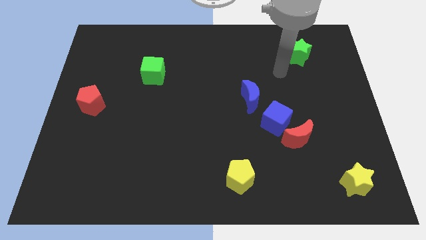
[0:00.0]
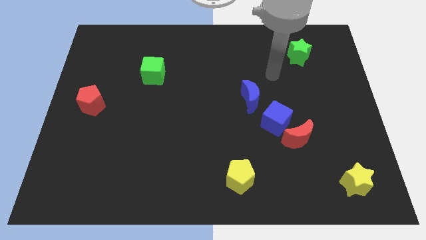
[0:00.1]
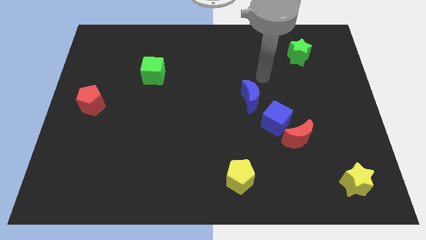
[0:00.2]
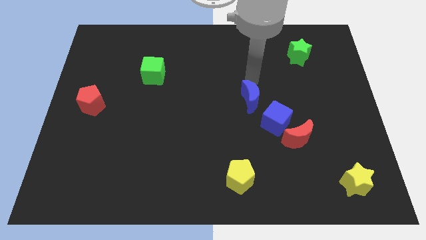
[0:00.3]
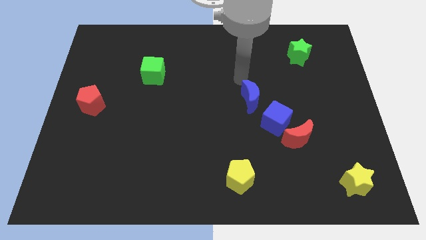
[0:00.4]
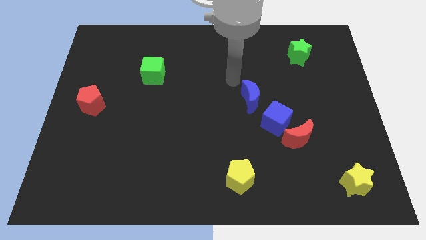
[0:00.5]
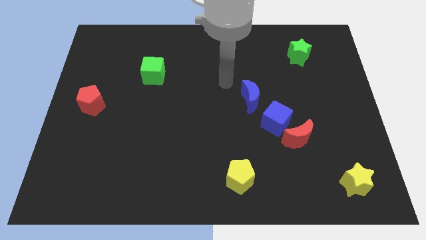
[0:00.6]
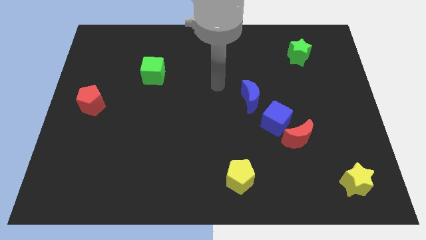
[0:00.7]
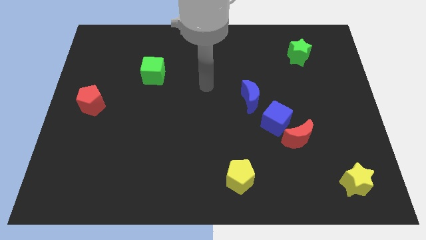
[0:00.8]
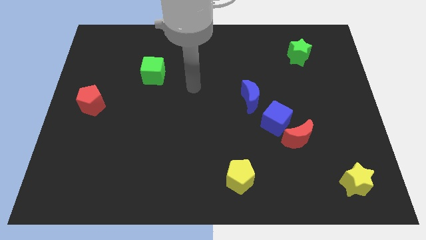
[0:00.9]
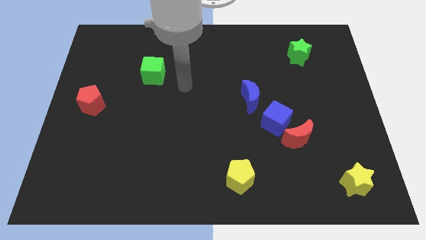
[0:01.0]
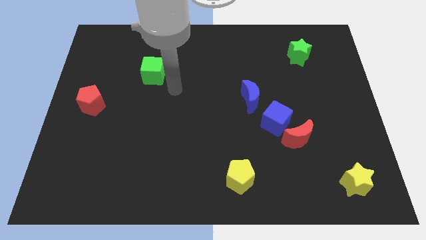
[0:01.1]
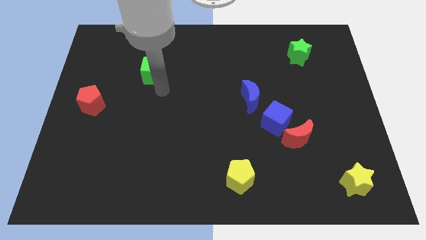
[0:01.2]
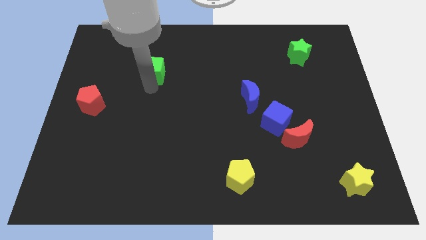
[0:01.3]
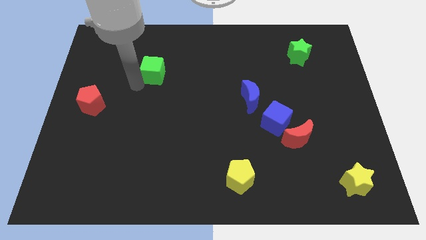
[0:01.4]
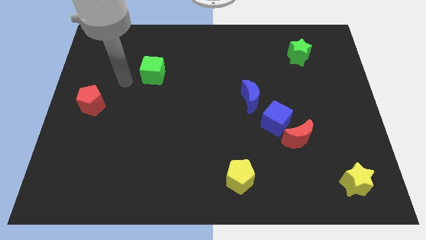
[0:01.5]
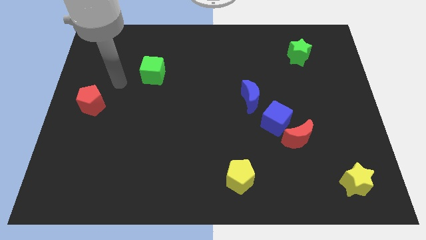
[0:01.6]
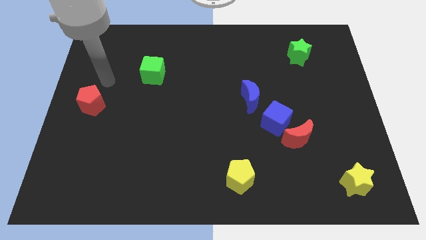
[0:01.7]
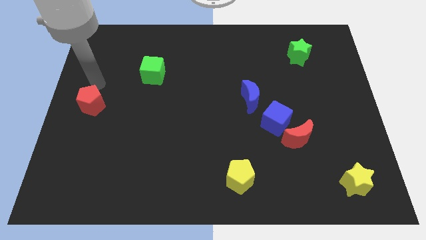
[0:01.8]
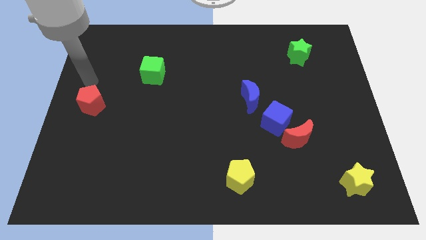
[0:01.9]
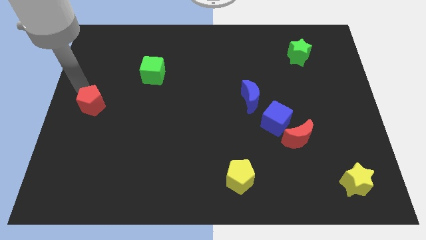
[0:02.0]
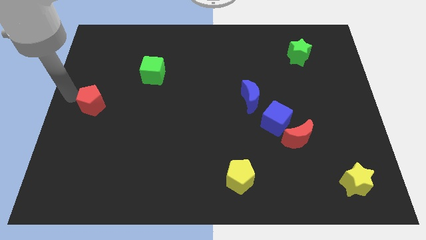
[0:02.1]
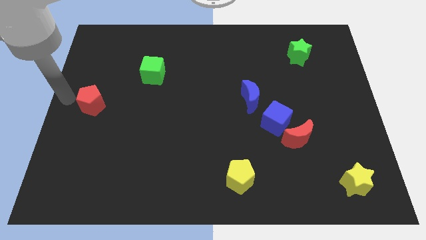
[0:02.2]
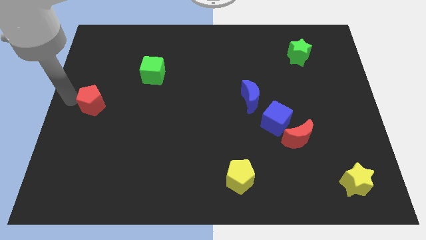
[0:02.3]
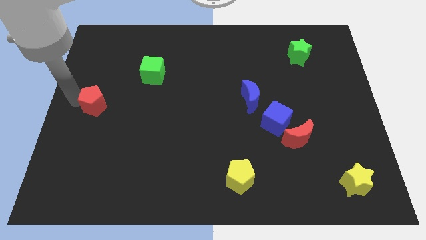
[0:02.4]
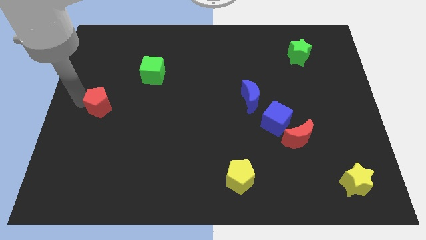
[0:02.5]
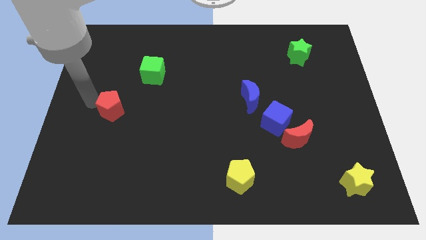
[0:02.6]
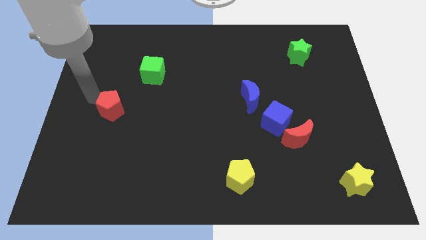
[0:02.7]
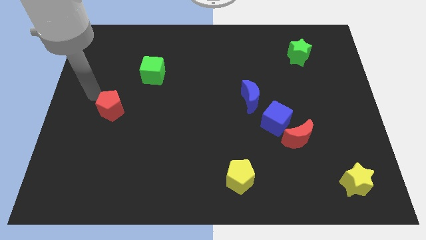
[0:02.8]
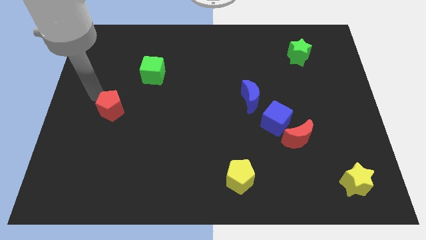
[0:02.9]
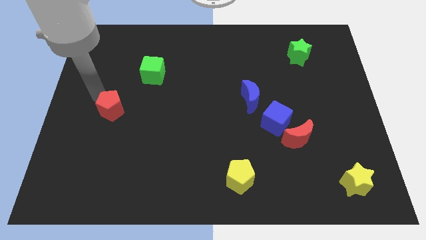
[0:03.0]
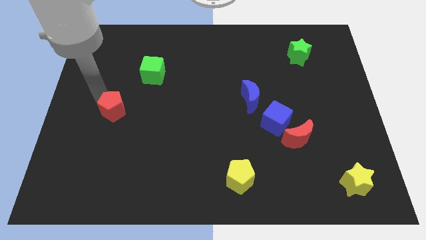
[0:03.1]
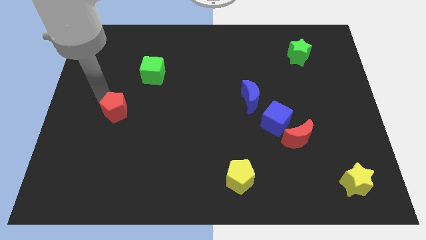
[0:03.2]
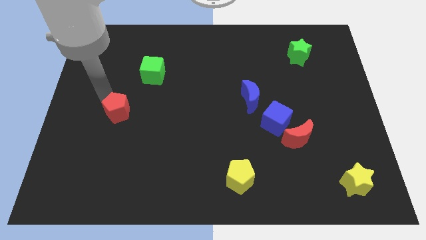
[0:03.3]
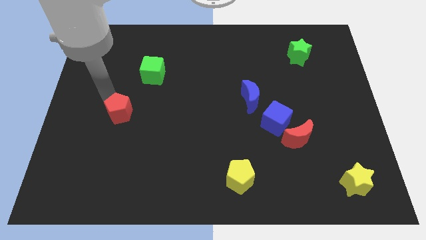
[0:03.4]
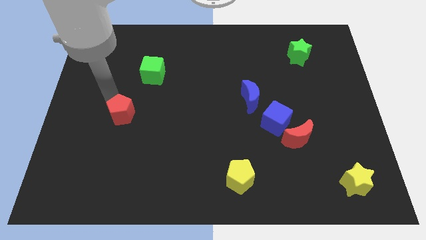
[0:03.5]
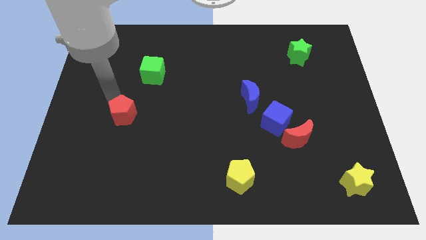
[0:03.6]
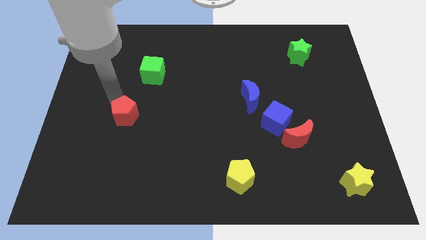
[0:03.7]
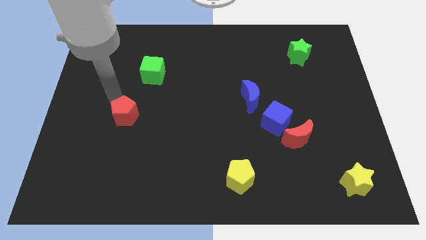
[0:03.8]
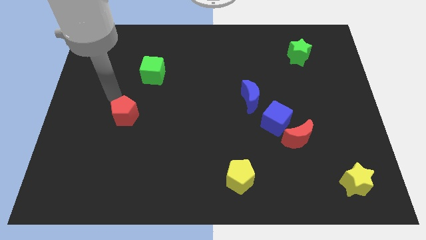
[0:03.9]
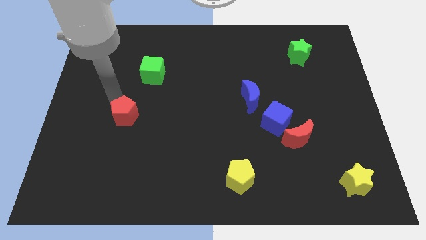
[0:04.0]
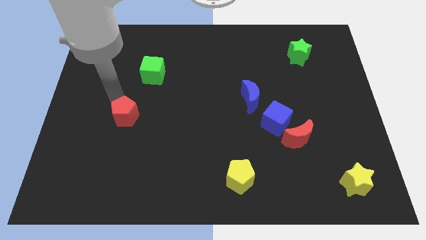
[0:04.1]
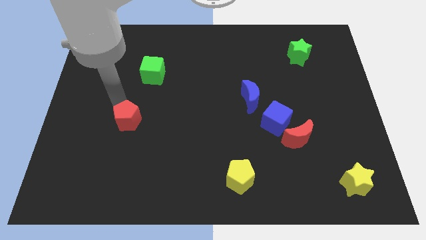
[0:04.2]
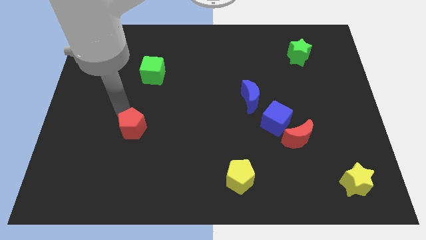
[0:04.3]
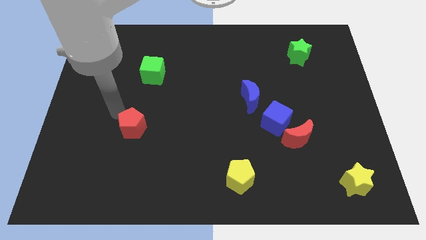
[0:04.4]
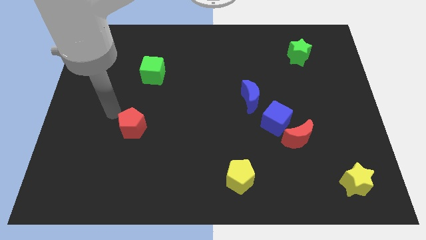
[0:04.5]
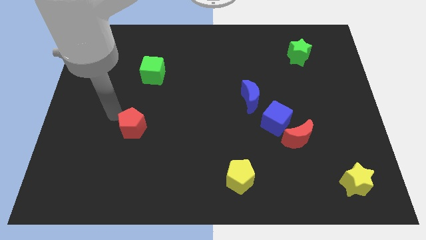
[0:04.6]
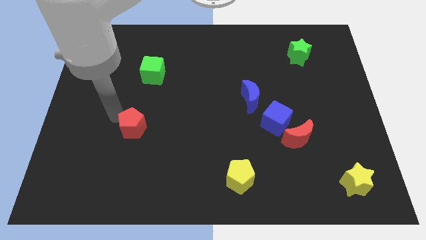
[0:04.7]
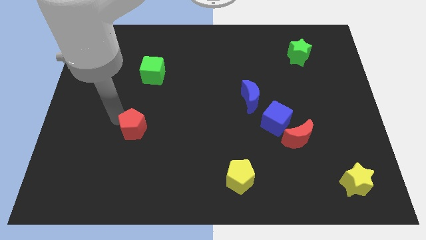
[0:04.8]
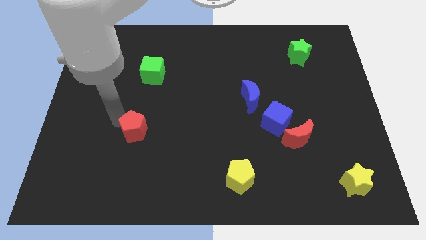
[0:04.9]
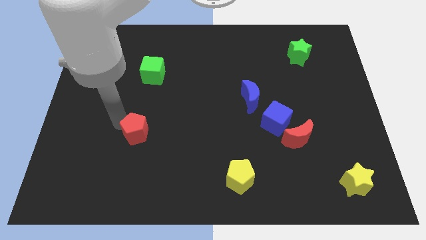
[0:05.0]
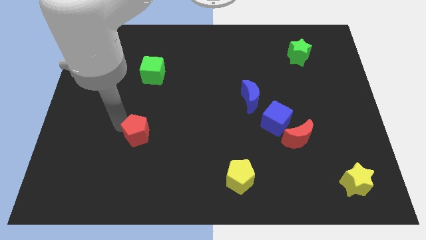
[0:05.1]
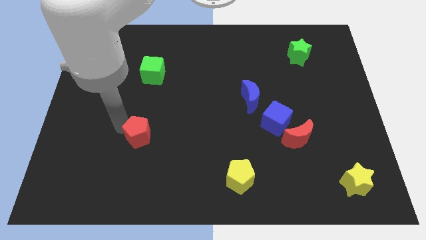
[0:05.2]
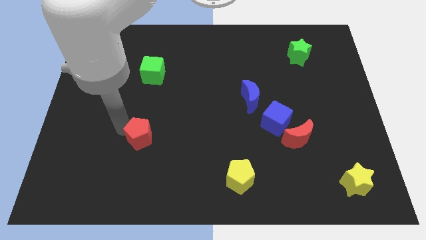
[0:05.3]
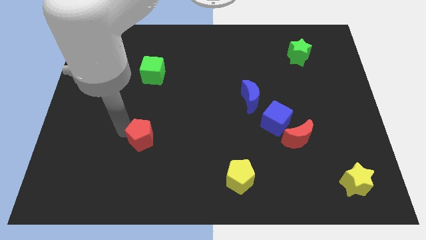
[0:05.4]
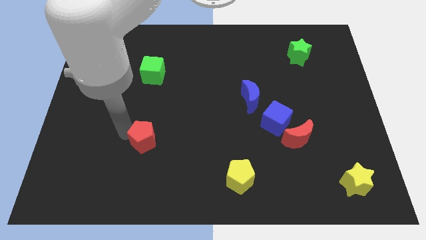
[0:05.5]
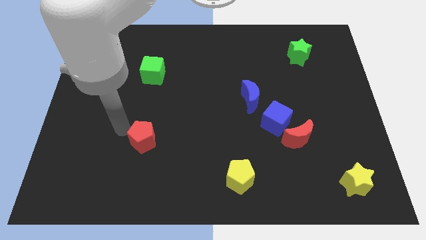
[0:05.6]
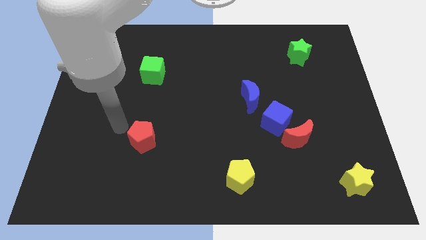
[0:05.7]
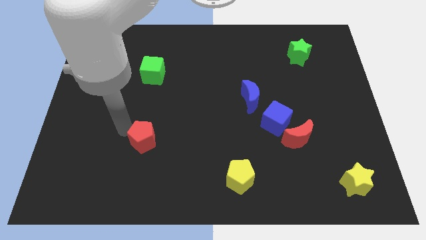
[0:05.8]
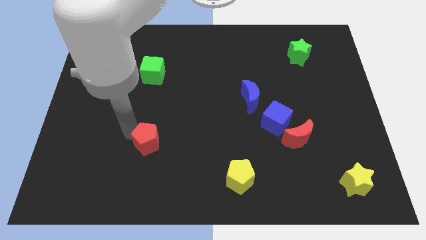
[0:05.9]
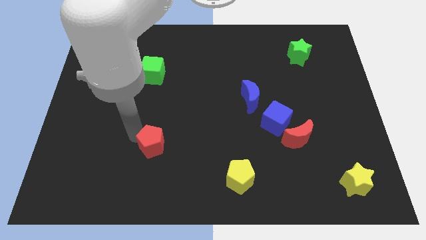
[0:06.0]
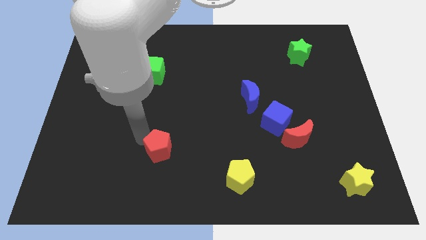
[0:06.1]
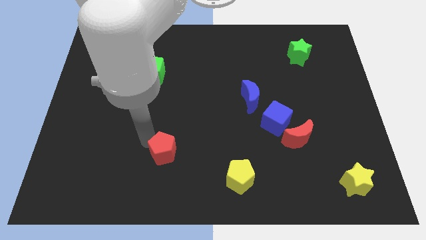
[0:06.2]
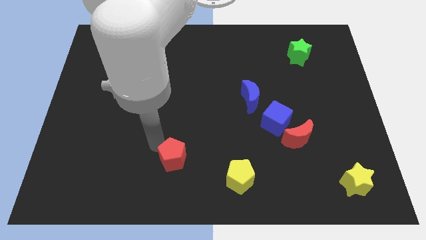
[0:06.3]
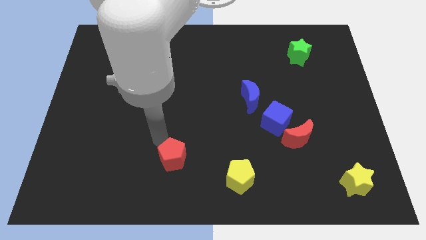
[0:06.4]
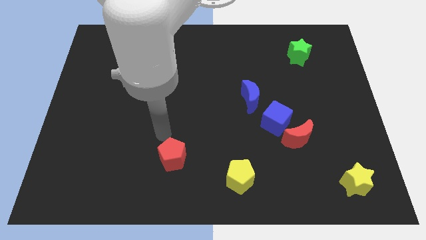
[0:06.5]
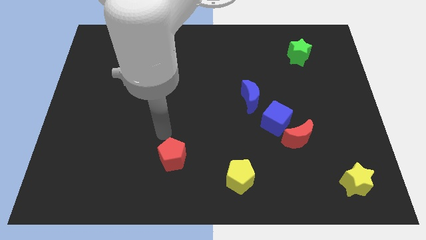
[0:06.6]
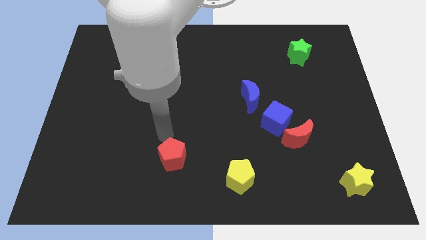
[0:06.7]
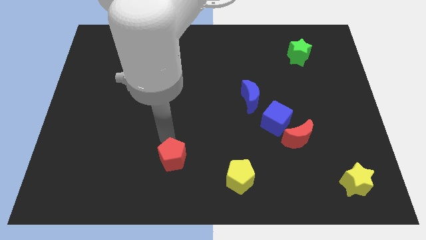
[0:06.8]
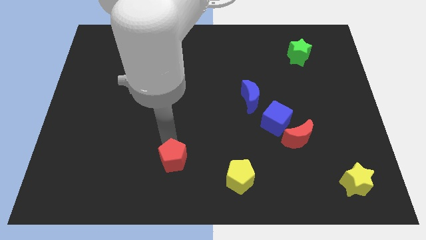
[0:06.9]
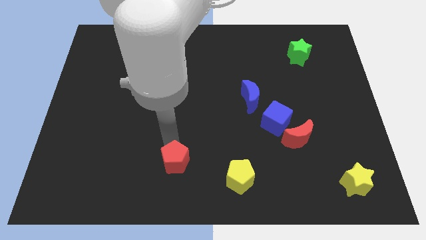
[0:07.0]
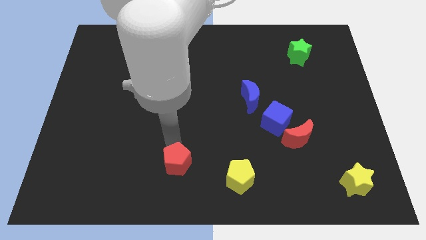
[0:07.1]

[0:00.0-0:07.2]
put the red pentagon to the bottom
